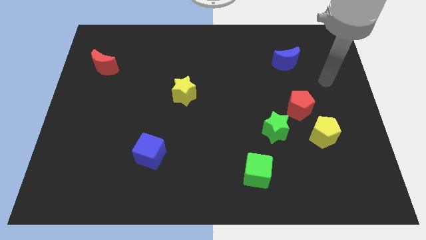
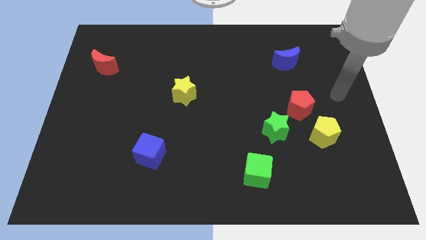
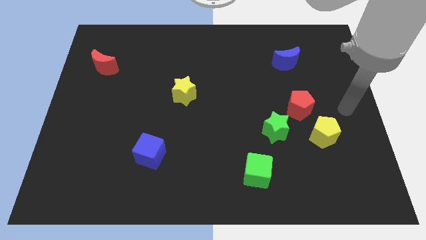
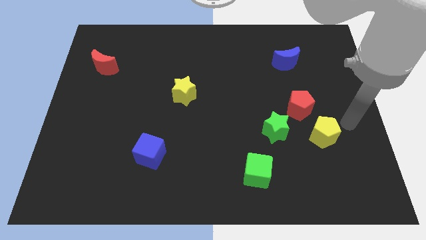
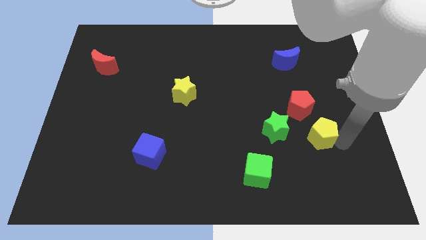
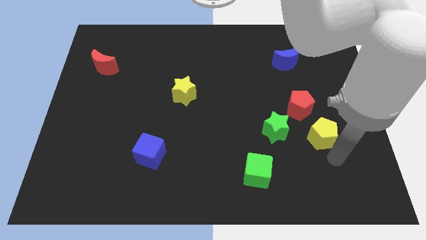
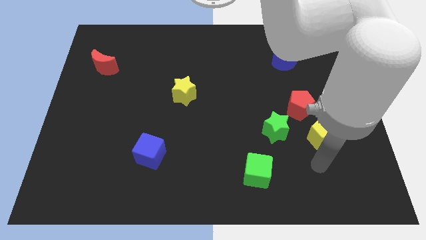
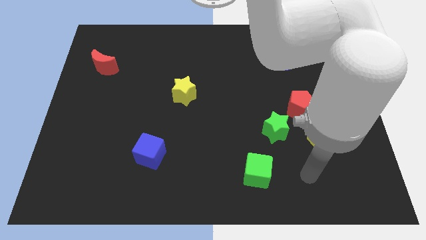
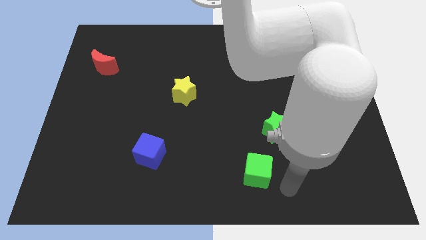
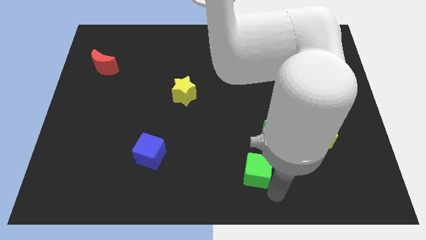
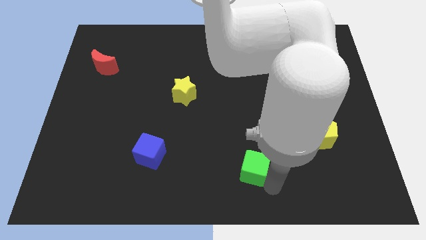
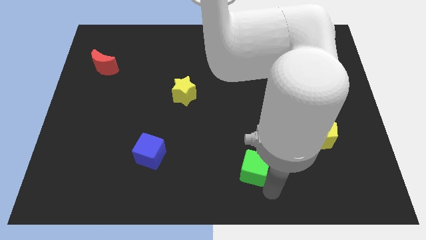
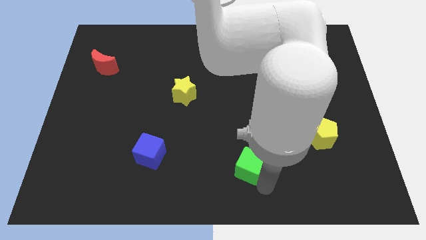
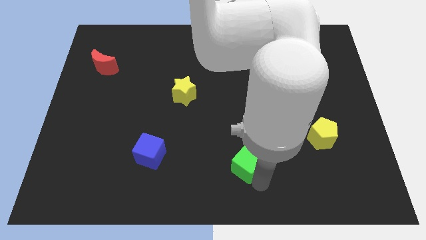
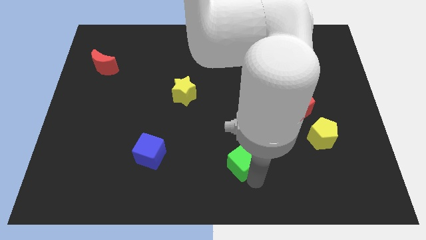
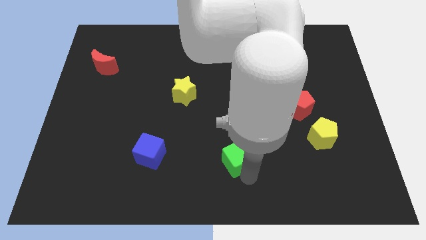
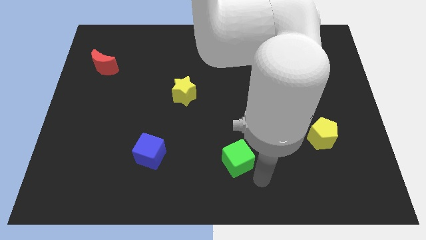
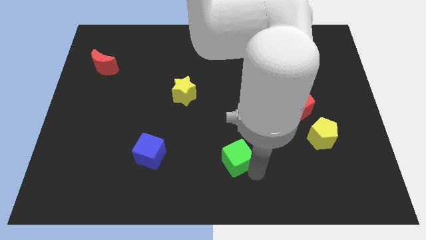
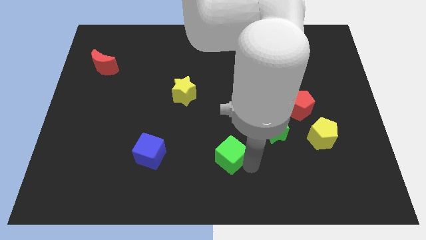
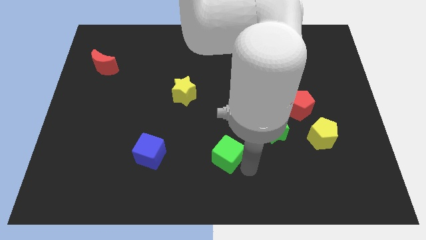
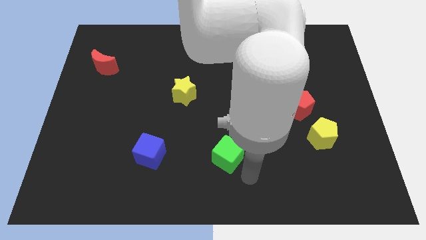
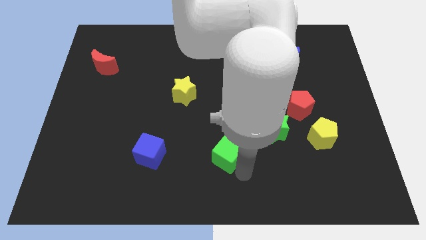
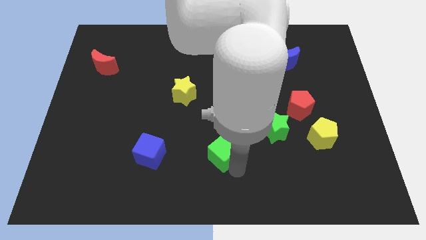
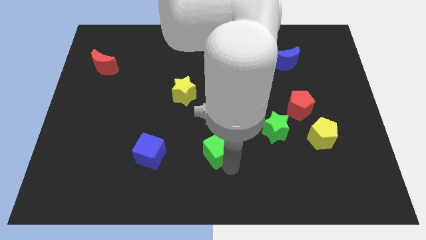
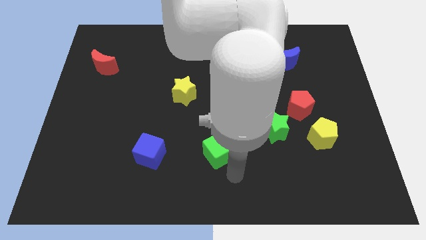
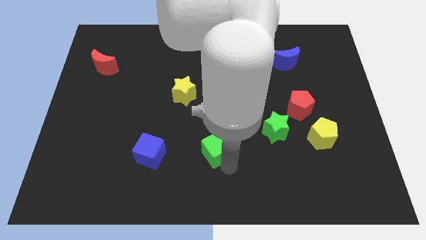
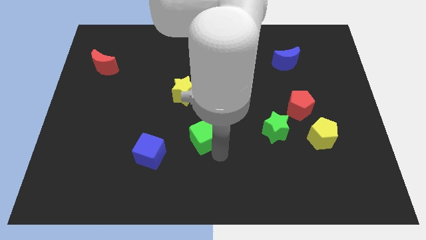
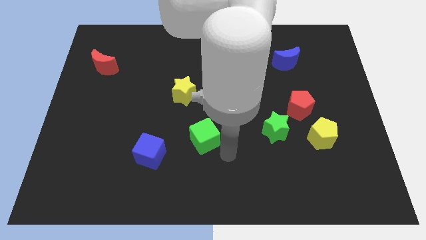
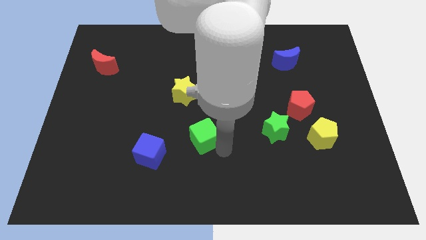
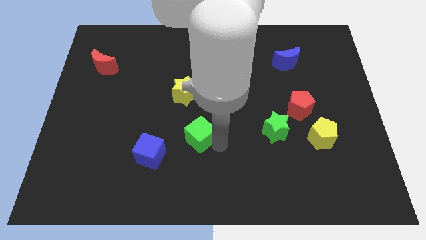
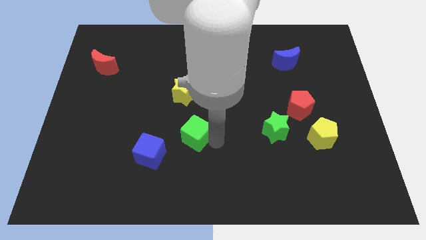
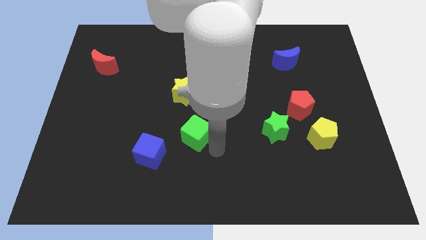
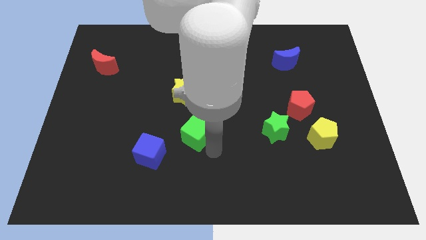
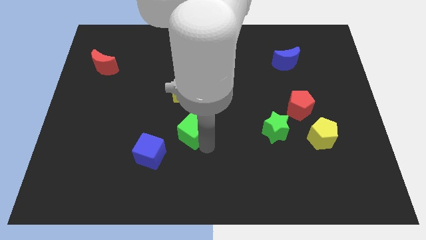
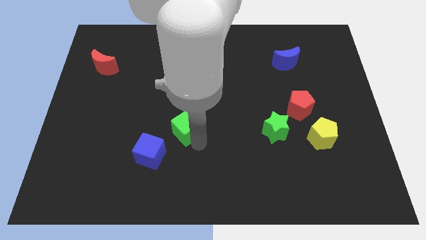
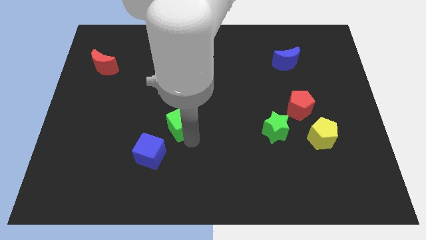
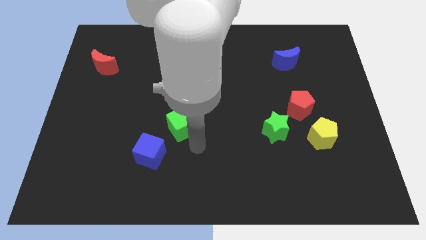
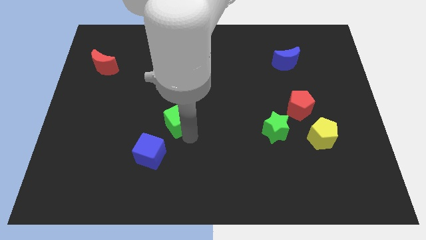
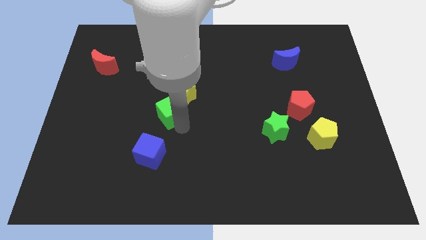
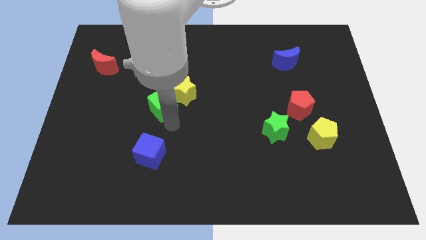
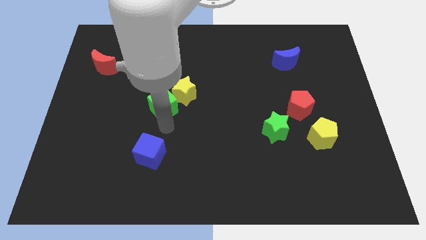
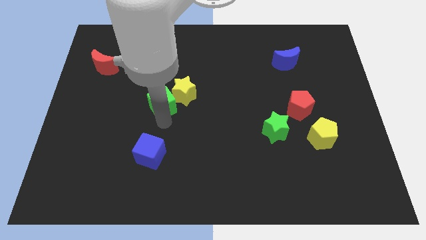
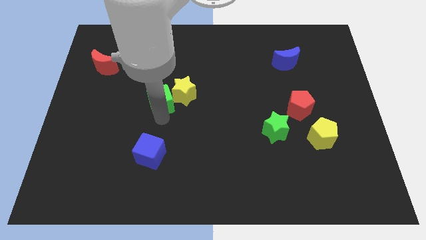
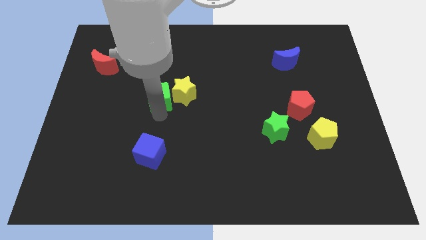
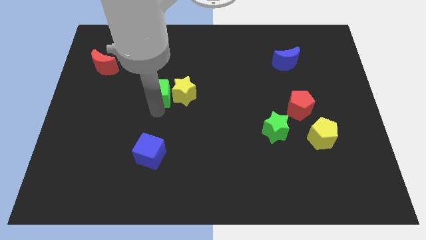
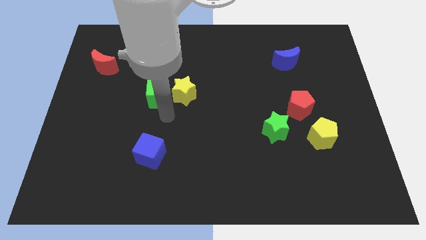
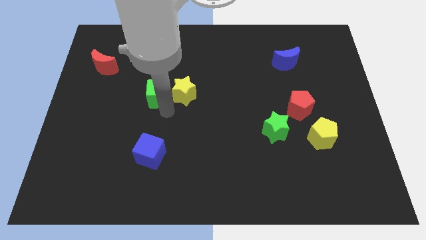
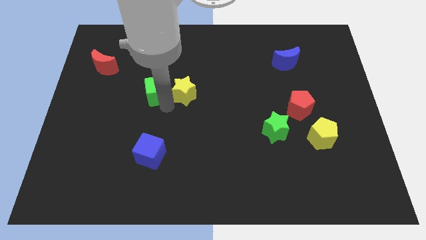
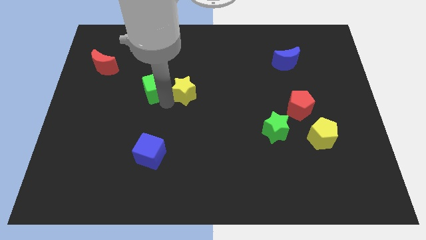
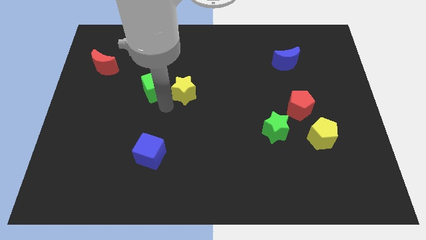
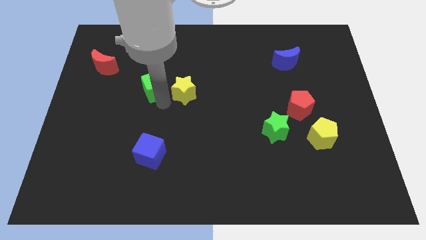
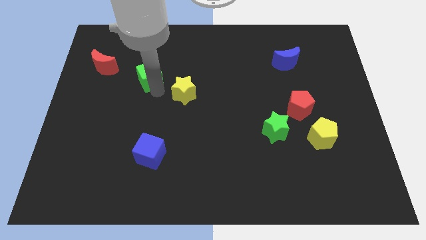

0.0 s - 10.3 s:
slide the green cube to the right of the red moon

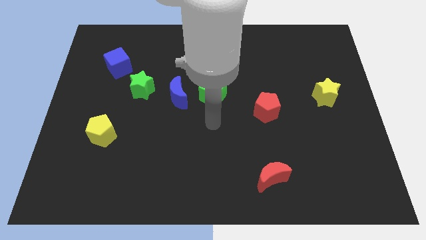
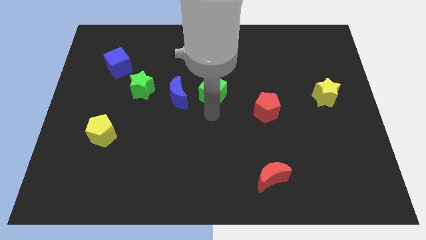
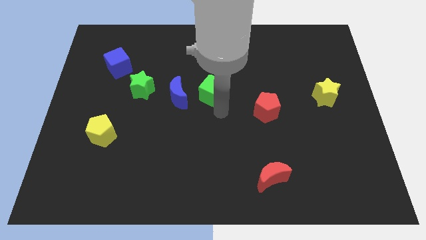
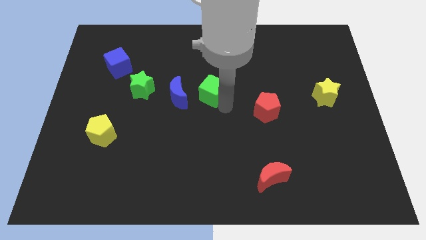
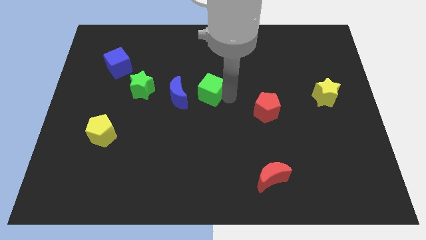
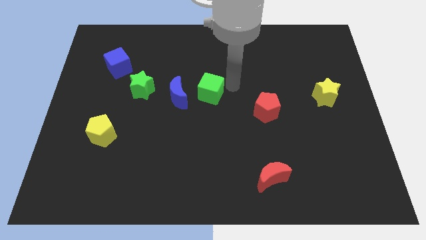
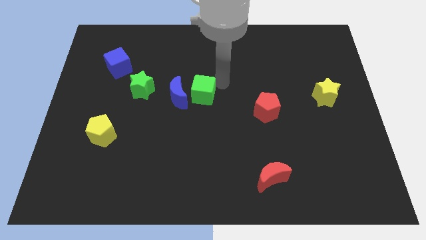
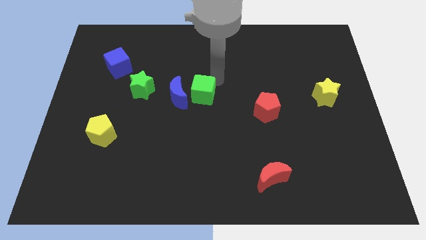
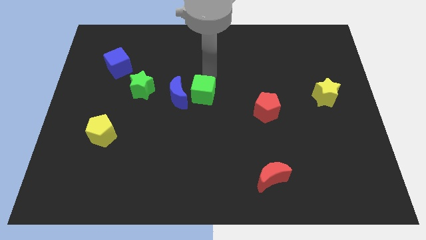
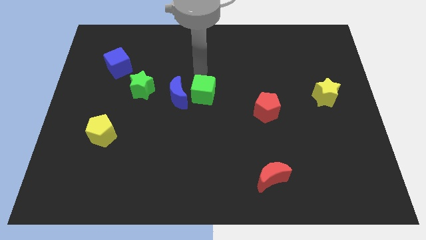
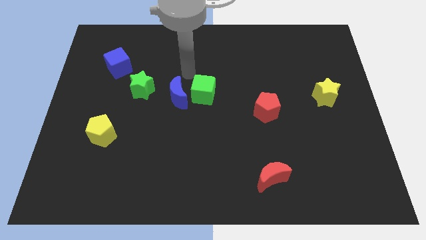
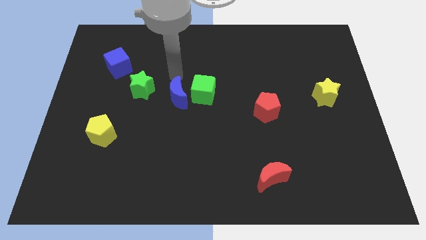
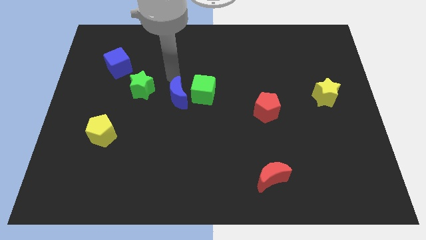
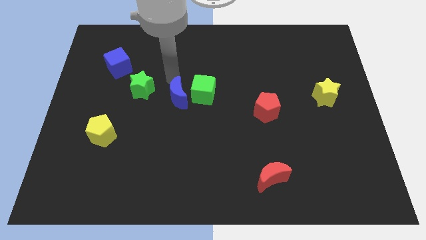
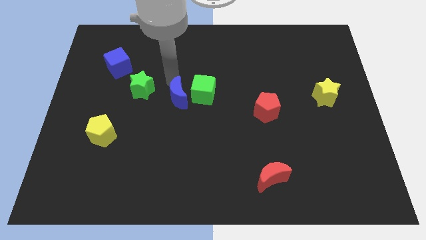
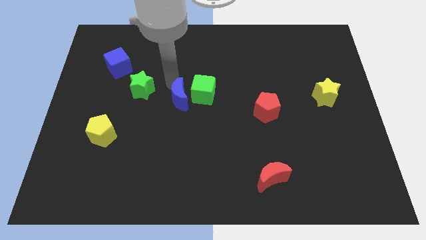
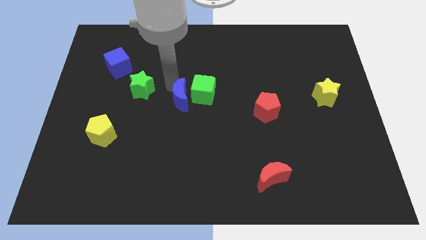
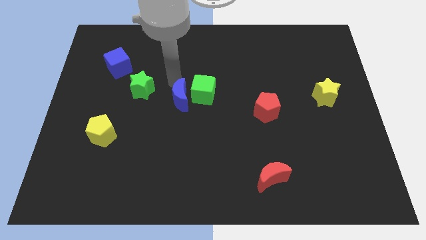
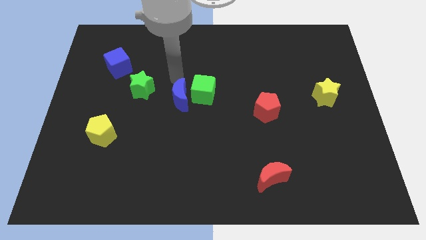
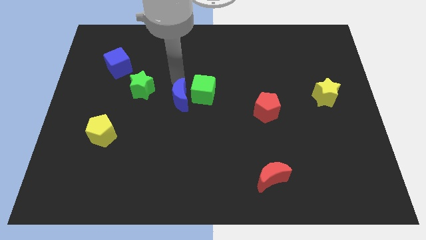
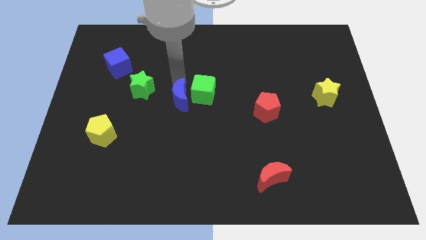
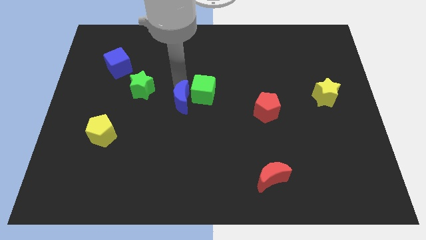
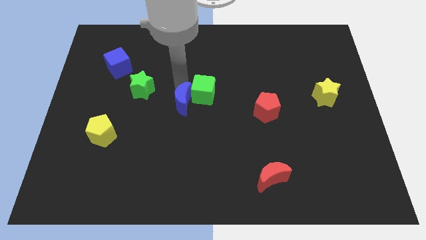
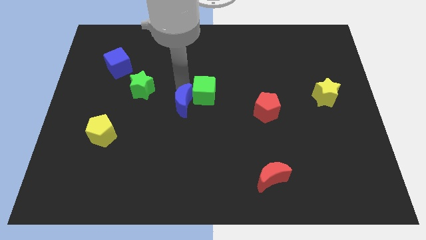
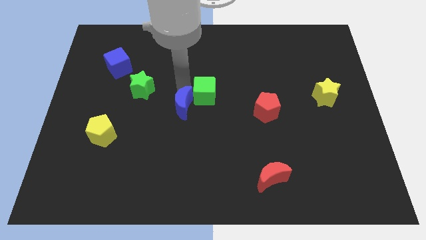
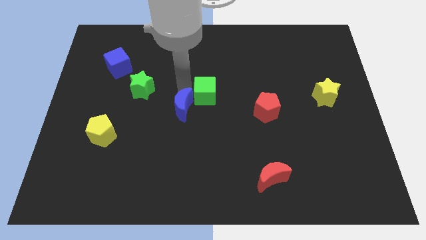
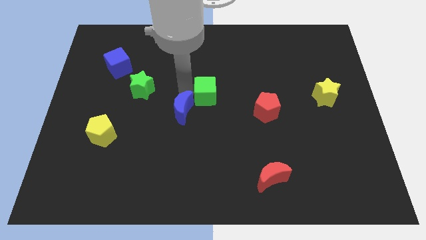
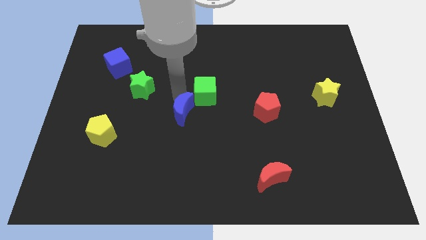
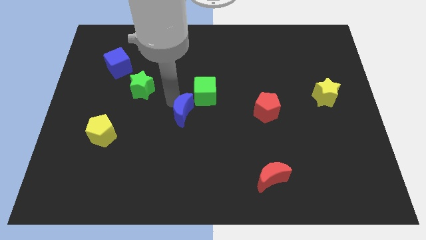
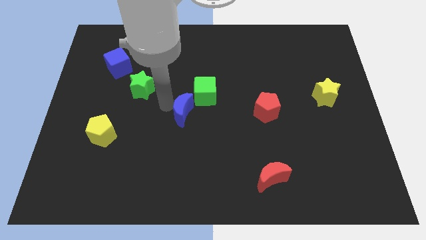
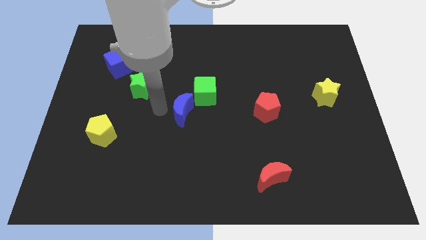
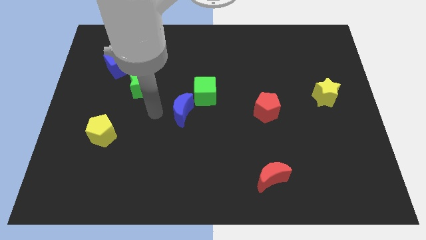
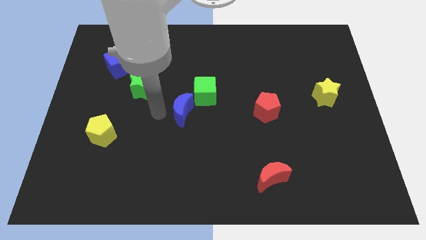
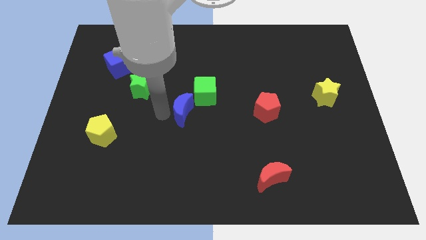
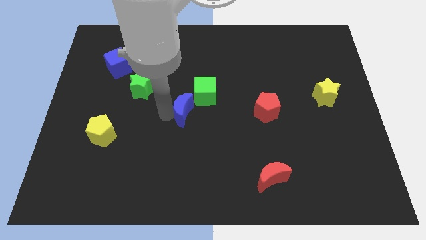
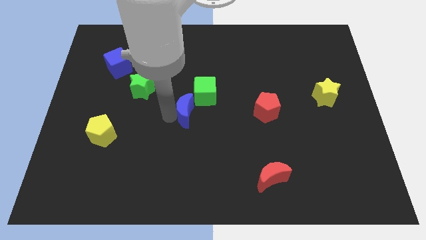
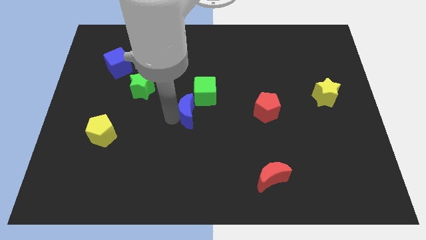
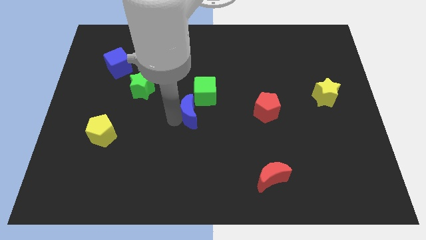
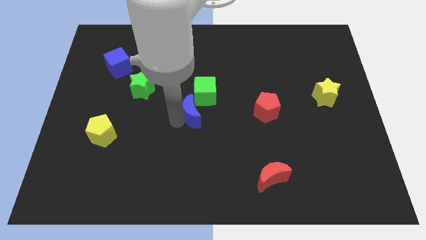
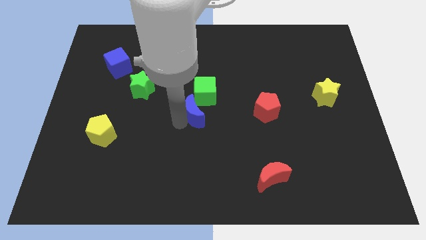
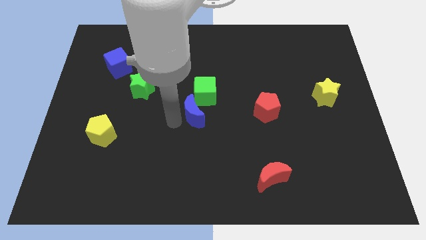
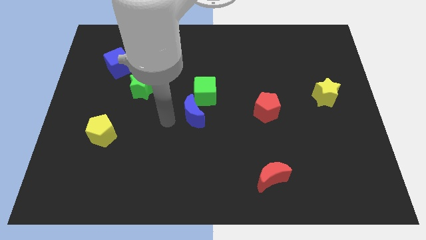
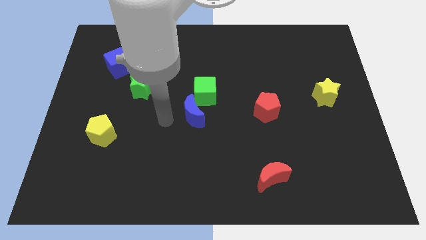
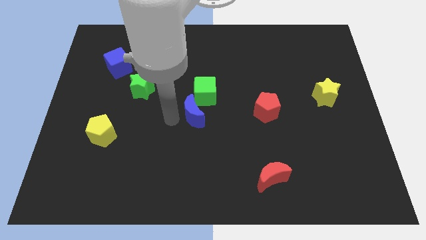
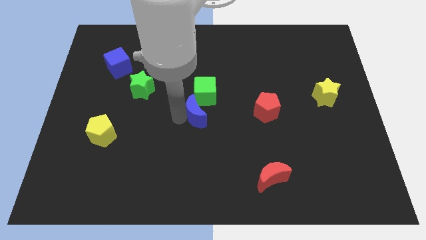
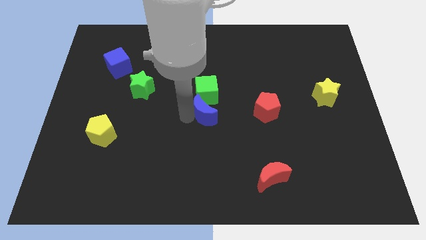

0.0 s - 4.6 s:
push the blue moon left of the red pentagon
